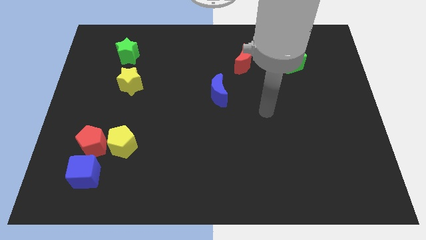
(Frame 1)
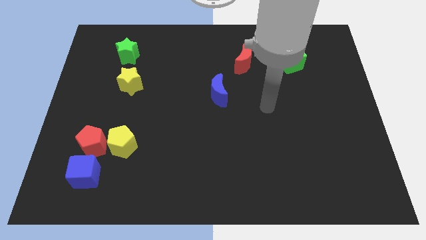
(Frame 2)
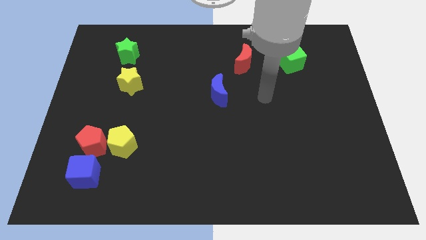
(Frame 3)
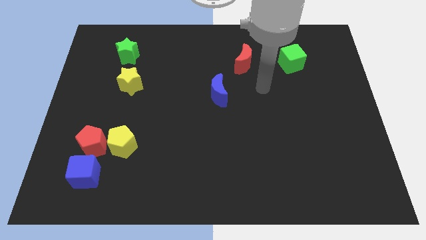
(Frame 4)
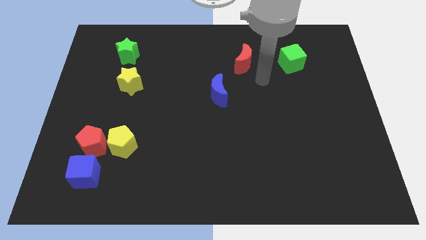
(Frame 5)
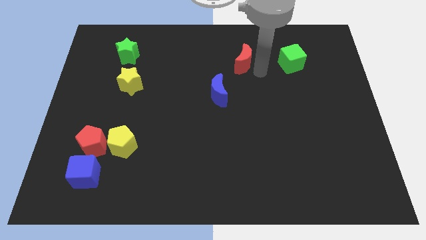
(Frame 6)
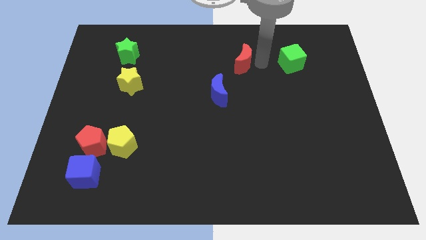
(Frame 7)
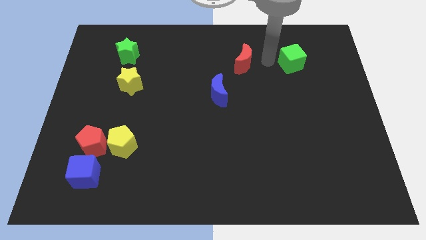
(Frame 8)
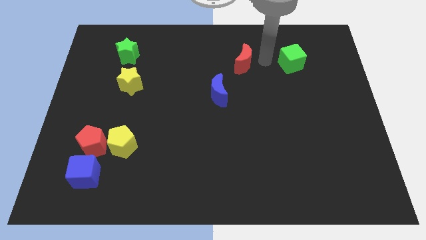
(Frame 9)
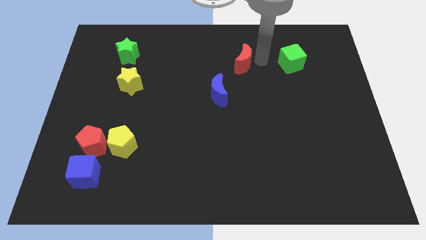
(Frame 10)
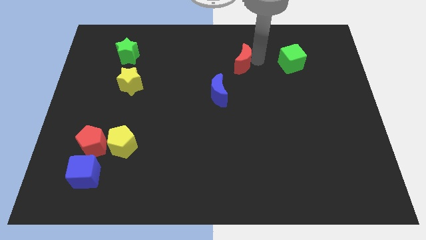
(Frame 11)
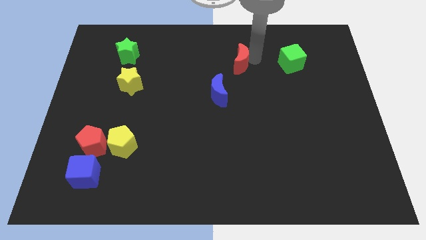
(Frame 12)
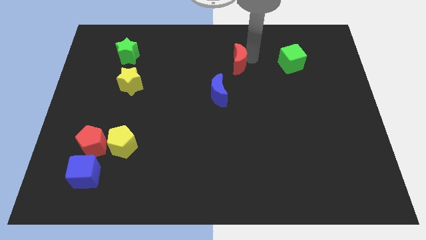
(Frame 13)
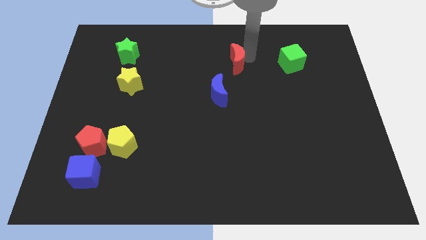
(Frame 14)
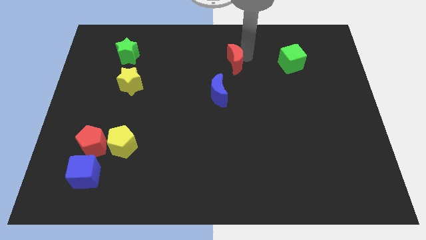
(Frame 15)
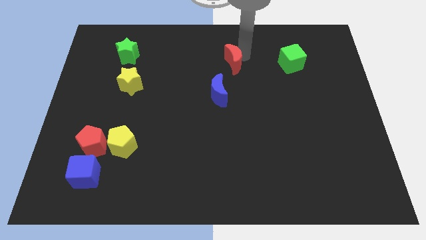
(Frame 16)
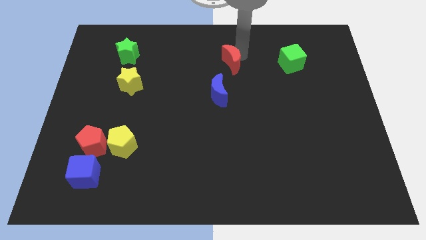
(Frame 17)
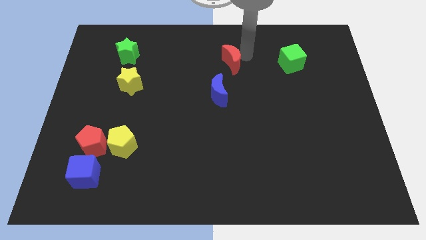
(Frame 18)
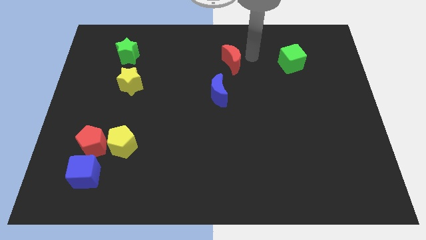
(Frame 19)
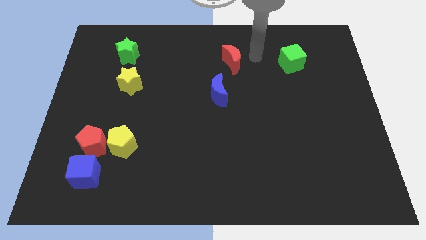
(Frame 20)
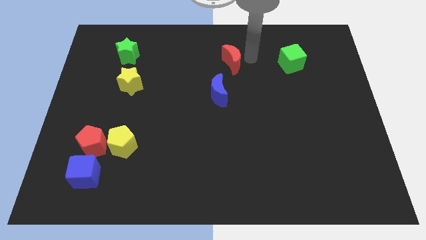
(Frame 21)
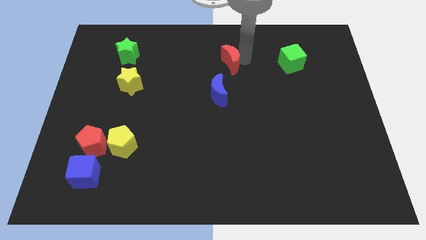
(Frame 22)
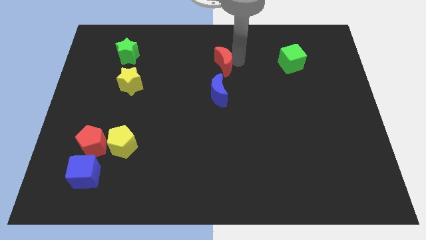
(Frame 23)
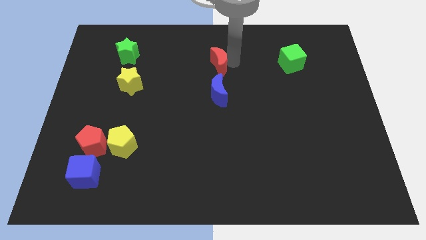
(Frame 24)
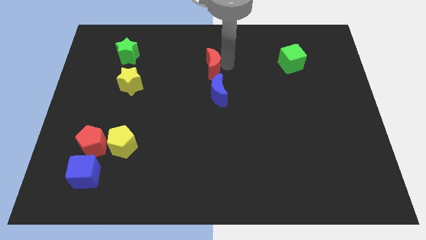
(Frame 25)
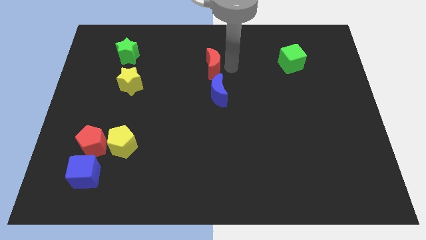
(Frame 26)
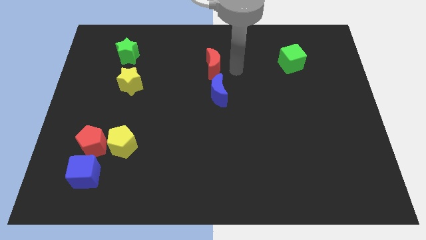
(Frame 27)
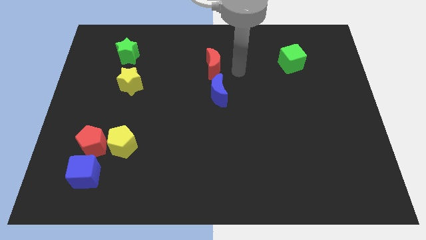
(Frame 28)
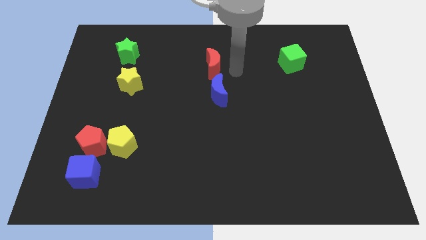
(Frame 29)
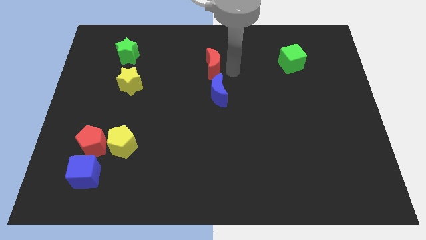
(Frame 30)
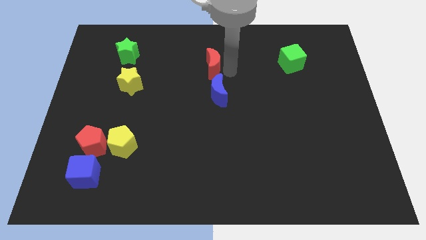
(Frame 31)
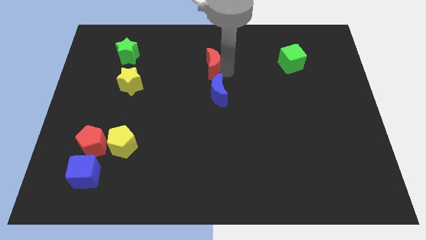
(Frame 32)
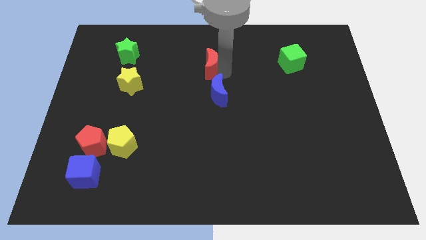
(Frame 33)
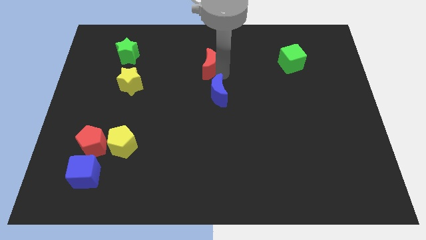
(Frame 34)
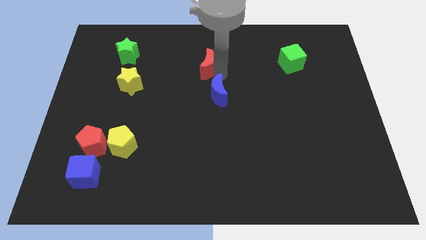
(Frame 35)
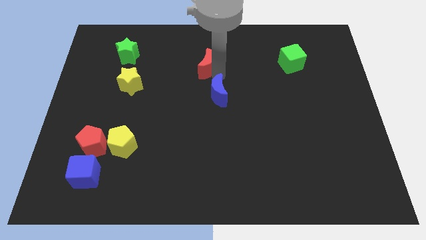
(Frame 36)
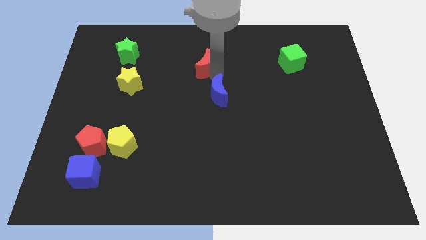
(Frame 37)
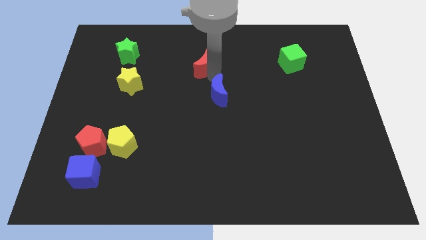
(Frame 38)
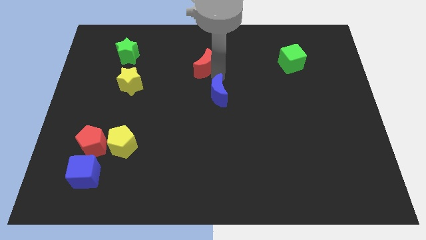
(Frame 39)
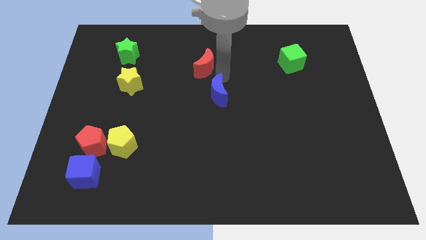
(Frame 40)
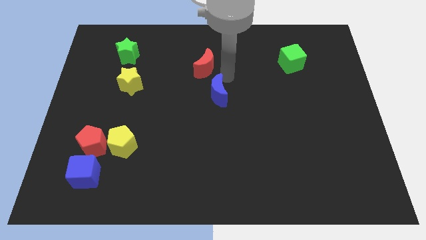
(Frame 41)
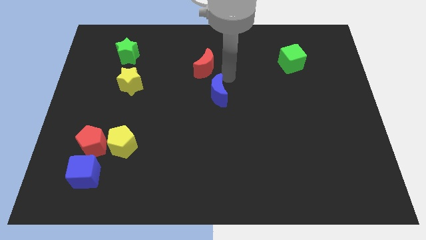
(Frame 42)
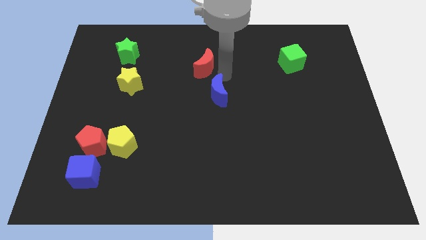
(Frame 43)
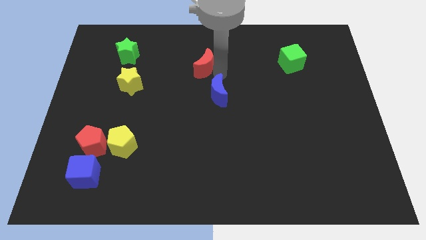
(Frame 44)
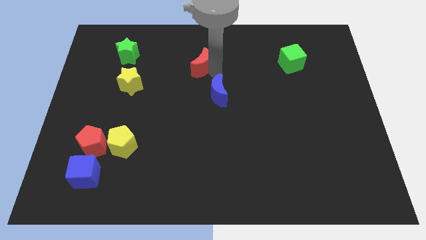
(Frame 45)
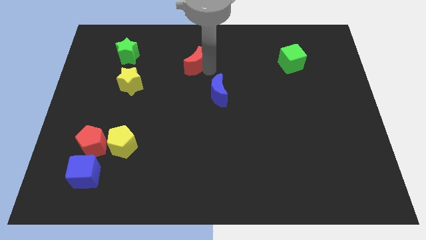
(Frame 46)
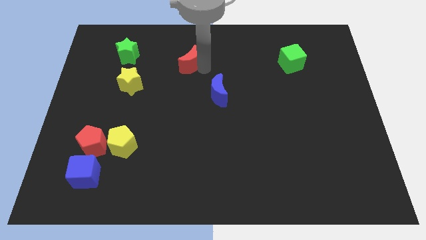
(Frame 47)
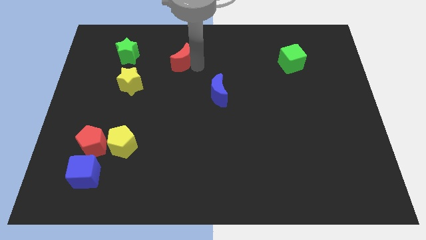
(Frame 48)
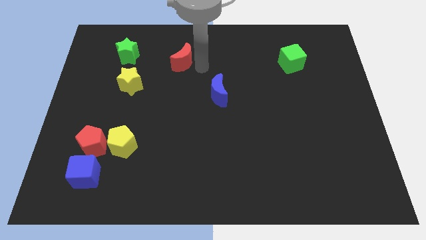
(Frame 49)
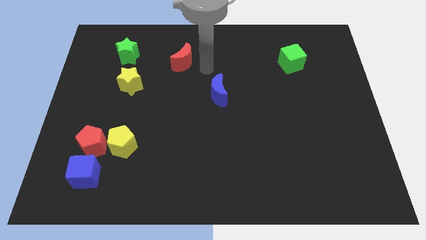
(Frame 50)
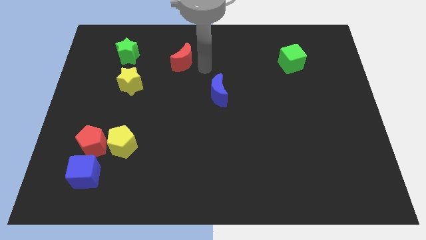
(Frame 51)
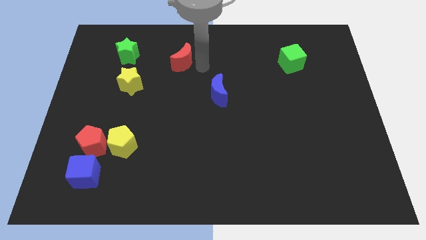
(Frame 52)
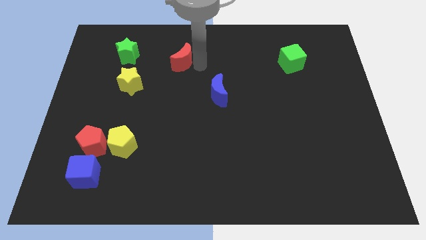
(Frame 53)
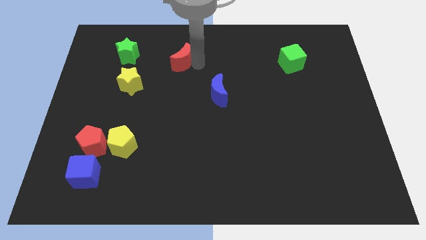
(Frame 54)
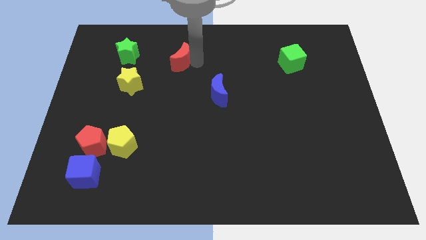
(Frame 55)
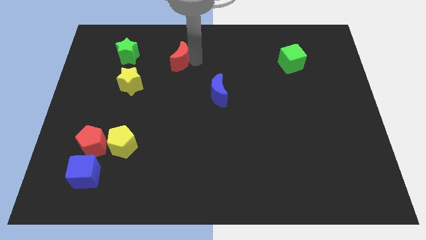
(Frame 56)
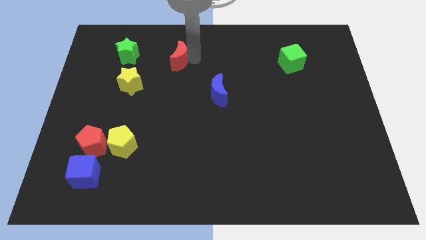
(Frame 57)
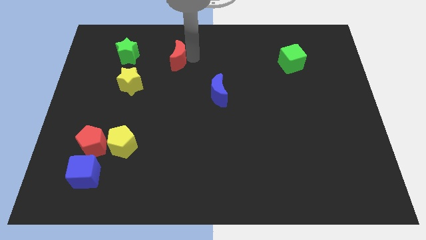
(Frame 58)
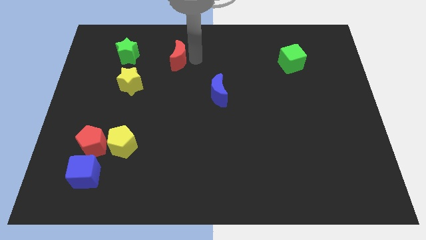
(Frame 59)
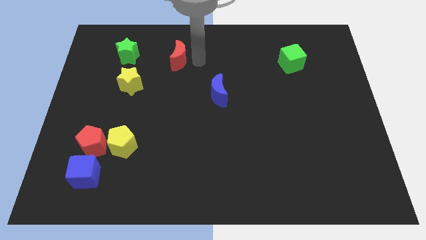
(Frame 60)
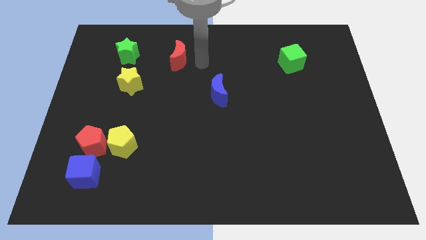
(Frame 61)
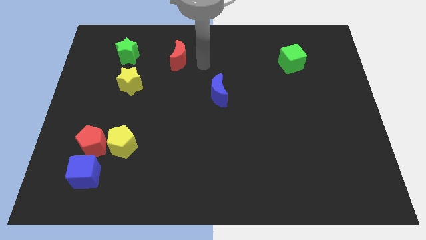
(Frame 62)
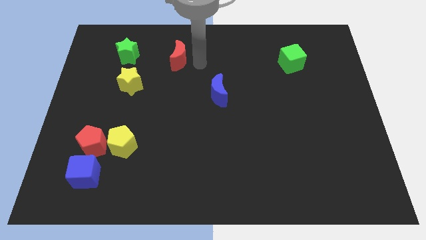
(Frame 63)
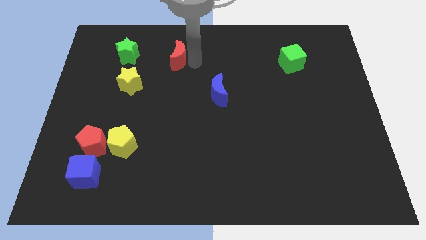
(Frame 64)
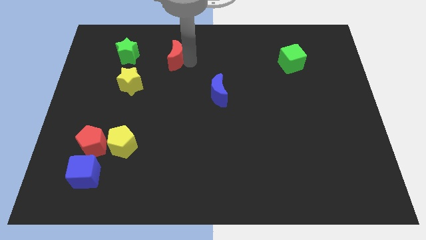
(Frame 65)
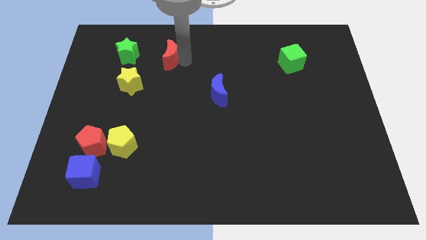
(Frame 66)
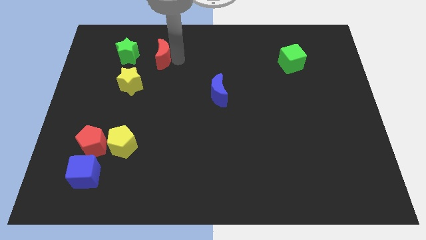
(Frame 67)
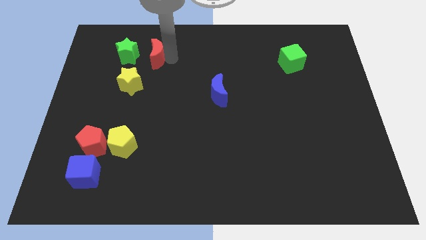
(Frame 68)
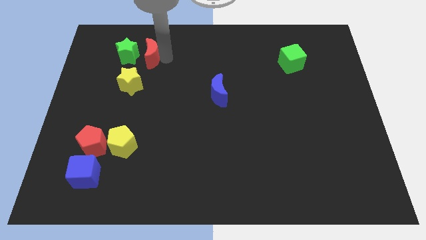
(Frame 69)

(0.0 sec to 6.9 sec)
put the red moon to the green star

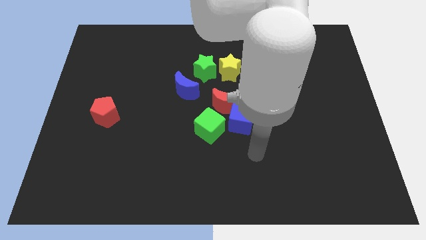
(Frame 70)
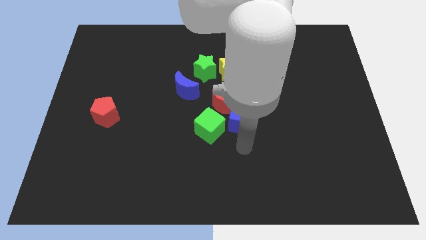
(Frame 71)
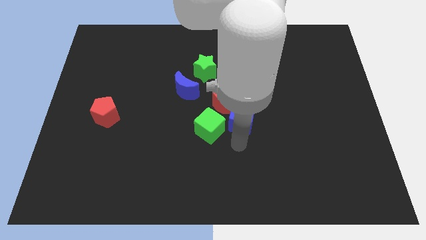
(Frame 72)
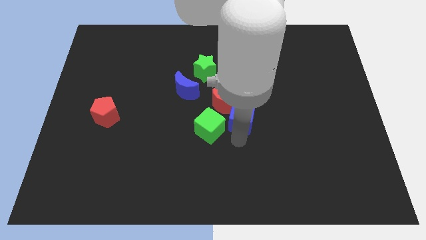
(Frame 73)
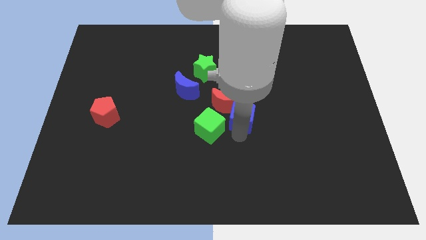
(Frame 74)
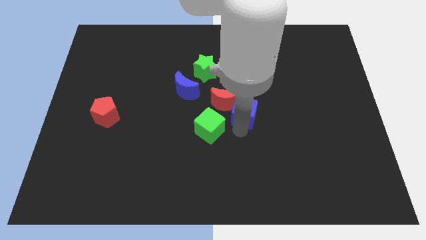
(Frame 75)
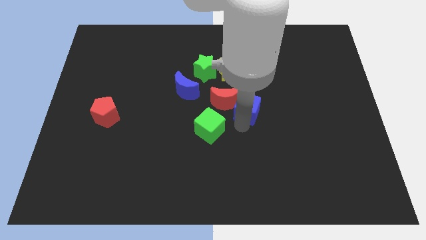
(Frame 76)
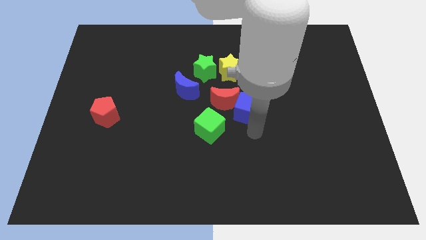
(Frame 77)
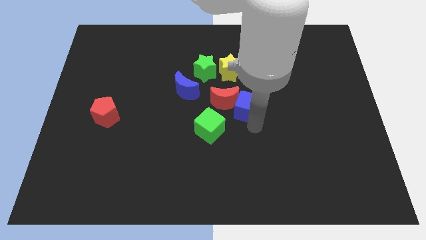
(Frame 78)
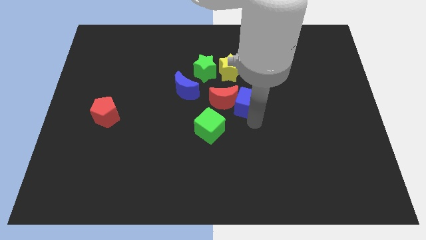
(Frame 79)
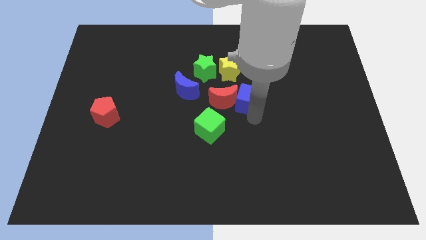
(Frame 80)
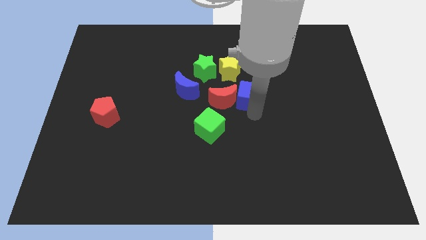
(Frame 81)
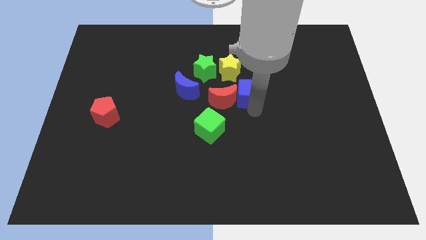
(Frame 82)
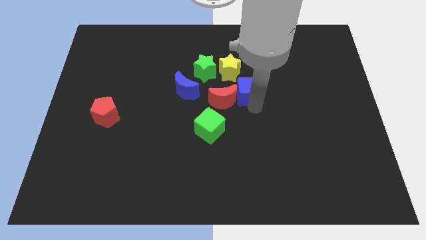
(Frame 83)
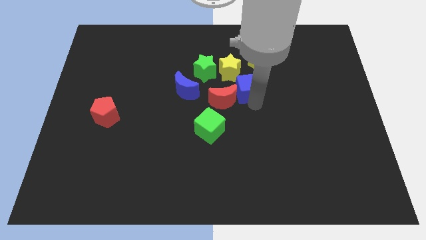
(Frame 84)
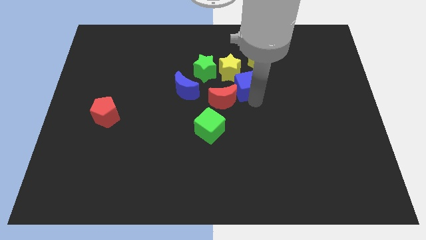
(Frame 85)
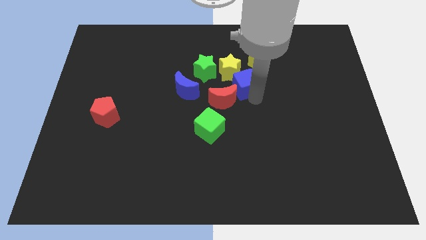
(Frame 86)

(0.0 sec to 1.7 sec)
push the blue cube close to the yellow star
